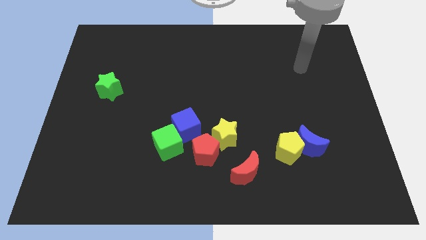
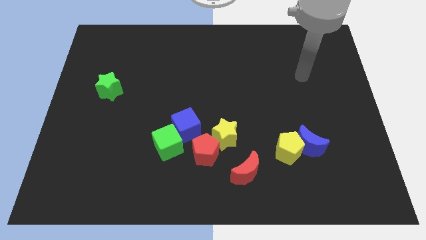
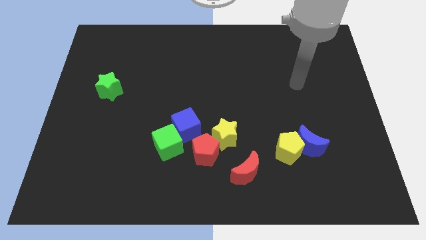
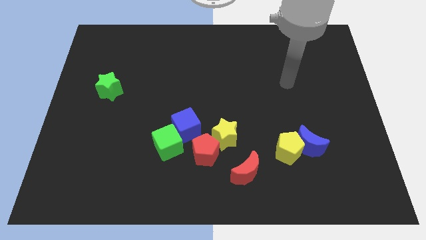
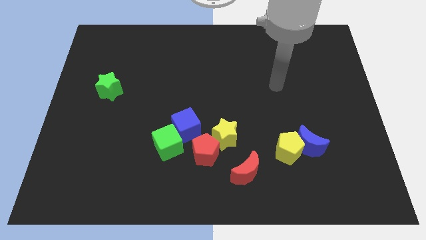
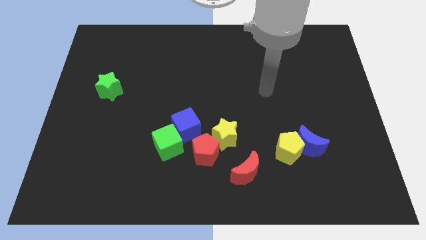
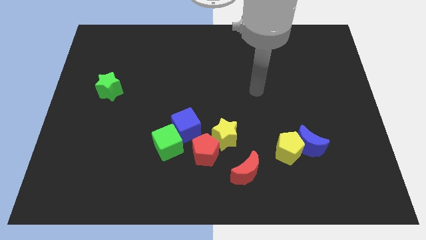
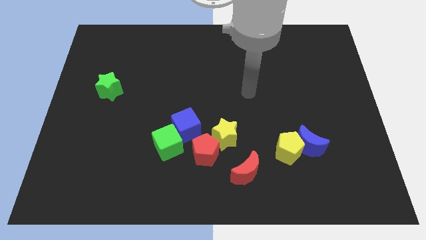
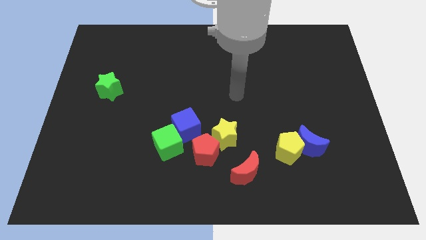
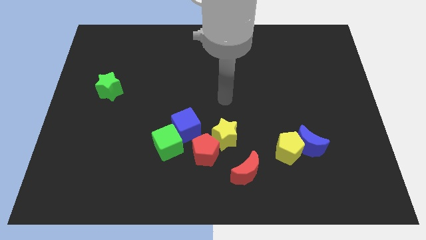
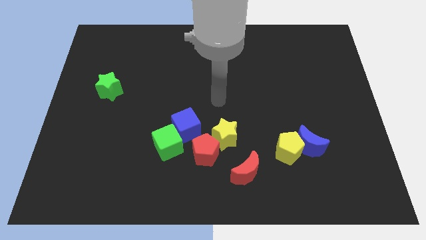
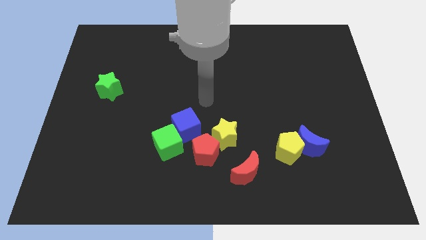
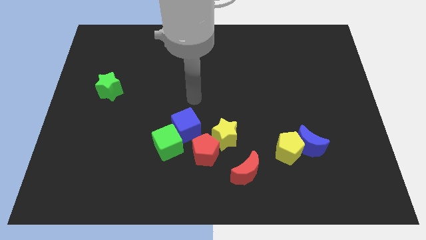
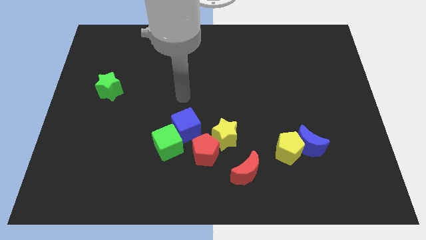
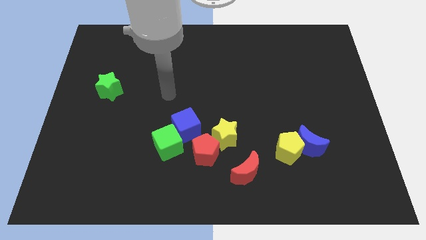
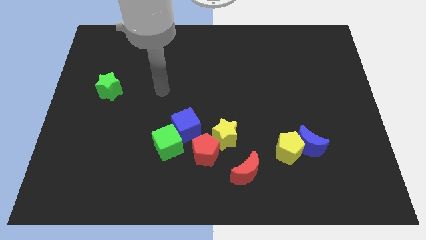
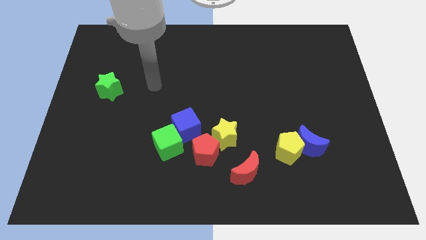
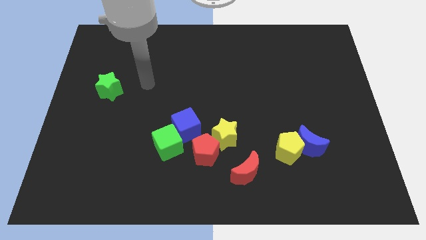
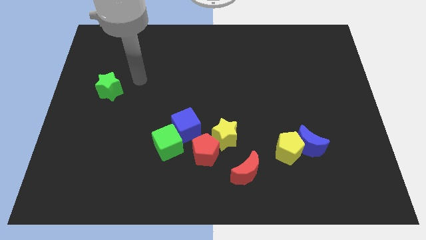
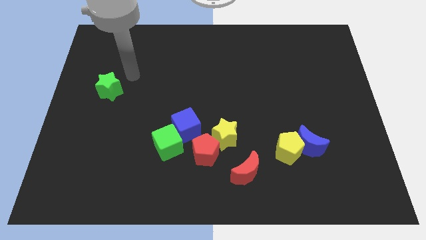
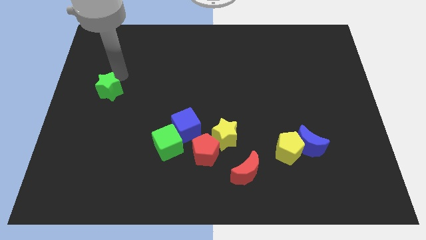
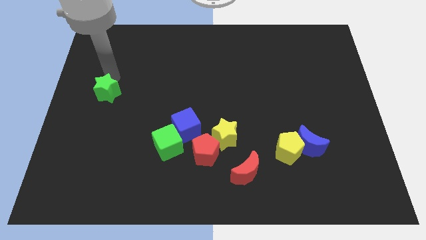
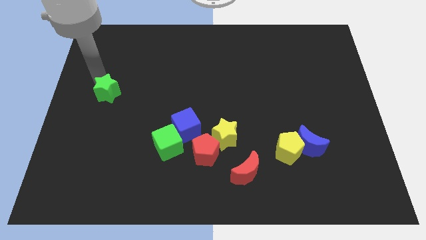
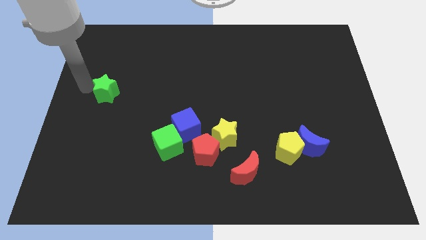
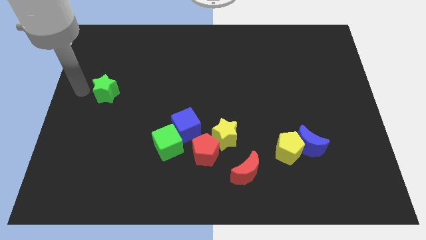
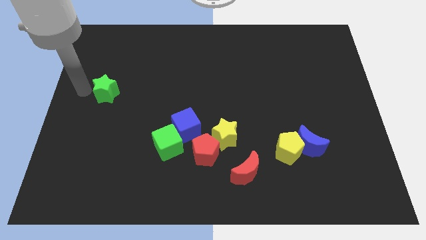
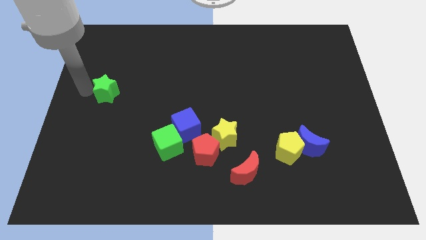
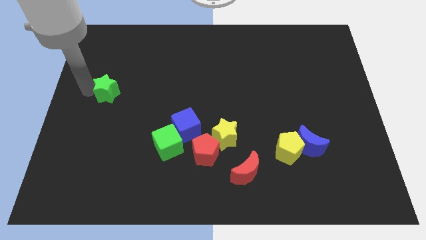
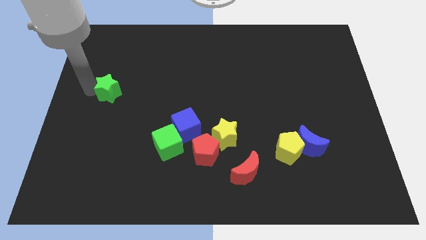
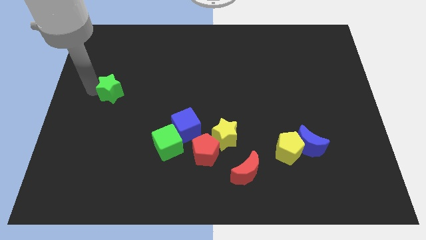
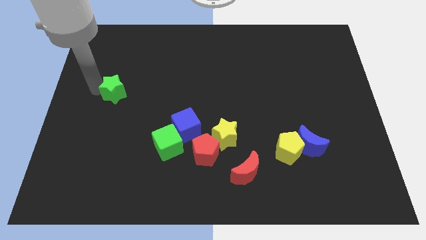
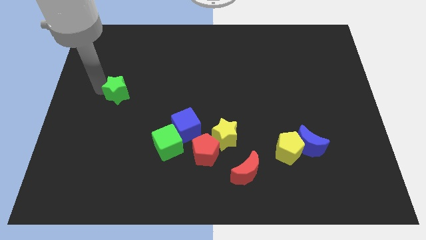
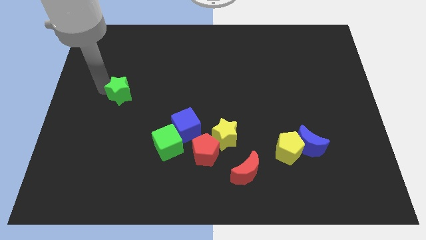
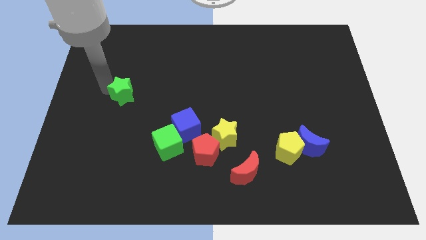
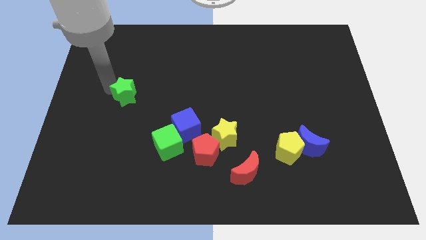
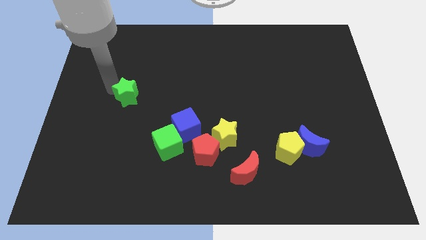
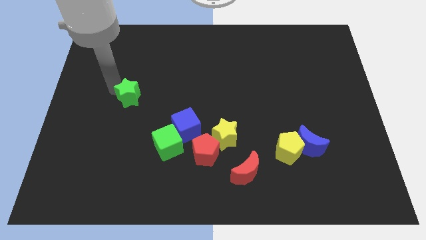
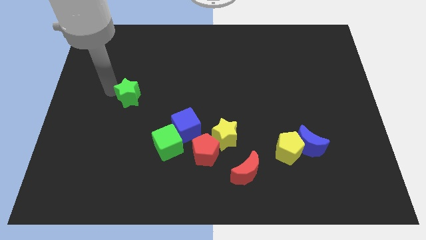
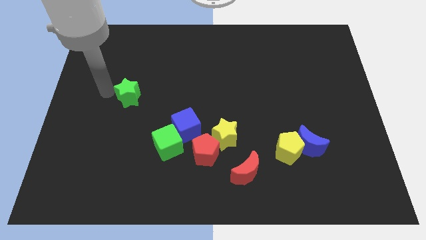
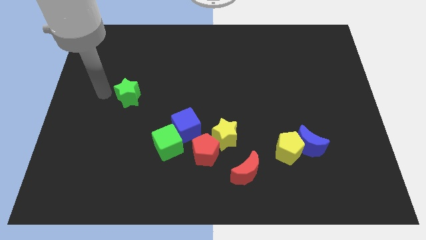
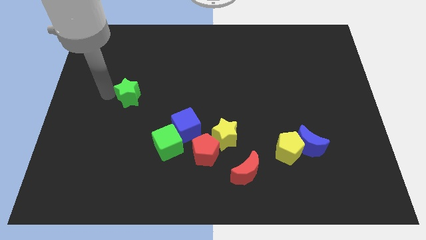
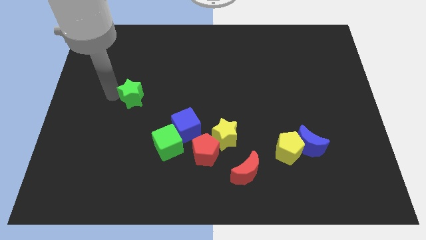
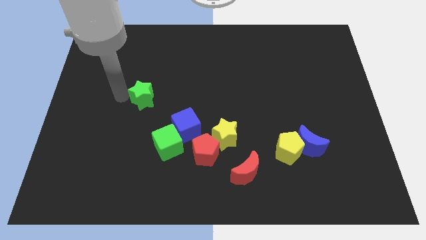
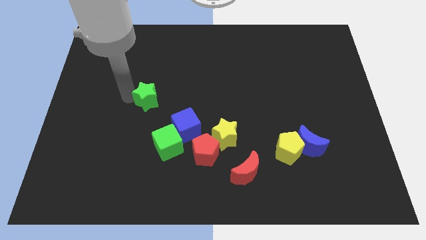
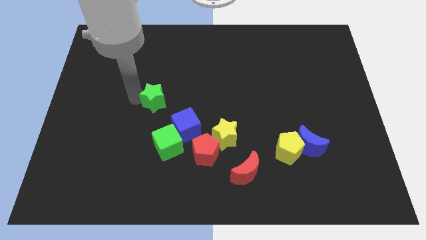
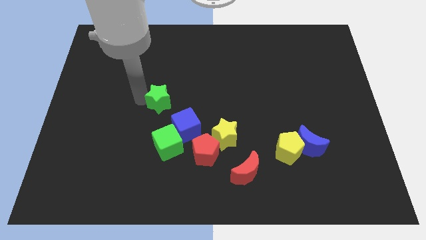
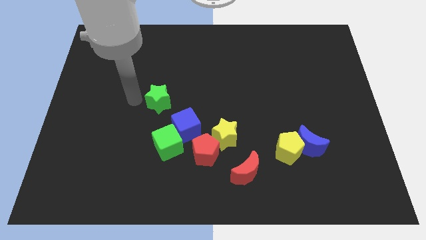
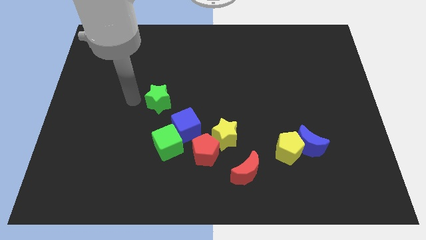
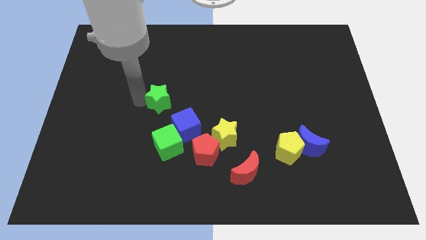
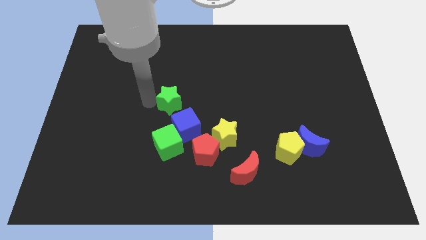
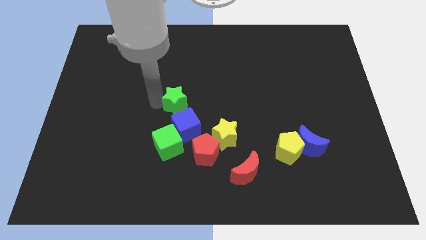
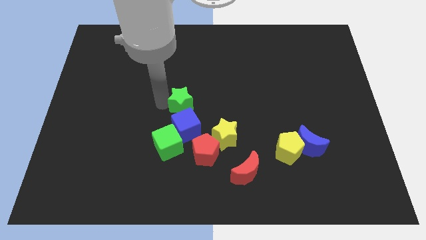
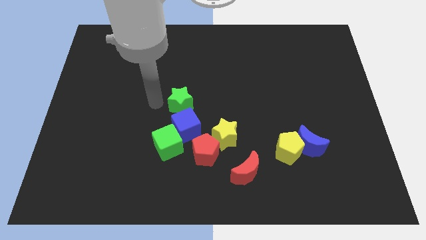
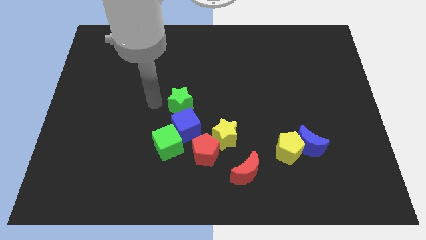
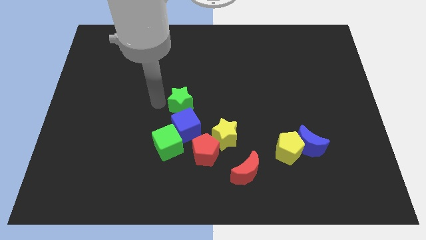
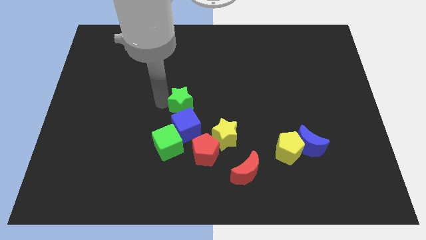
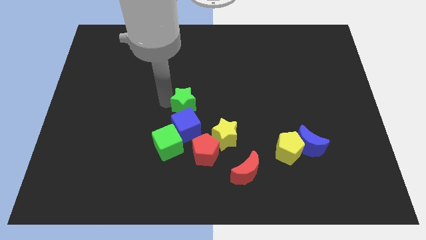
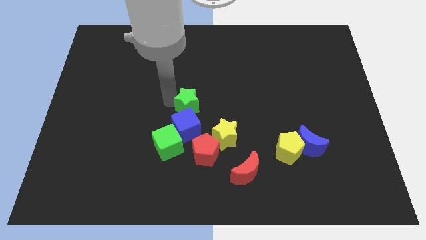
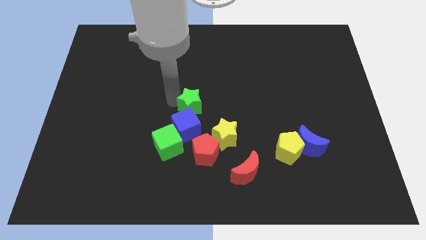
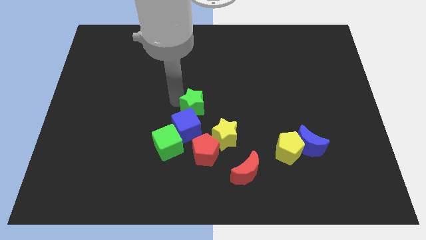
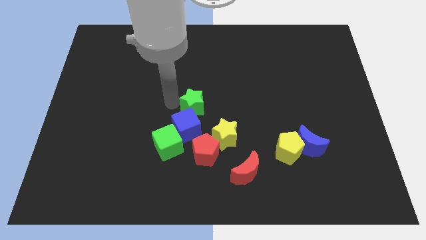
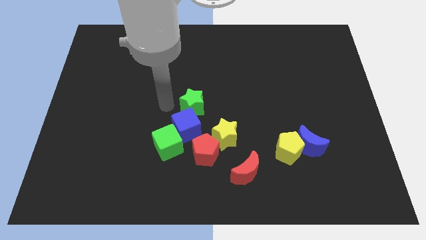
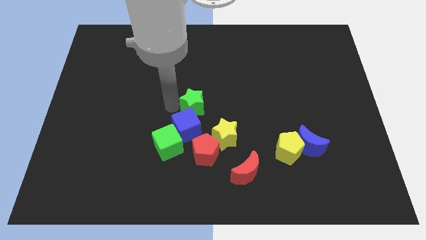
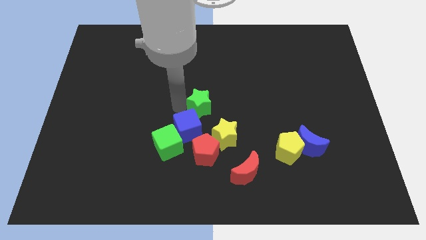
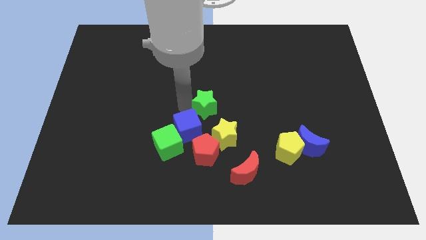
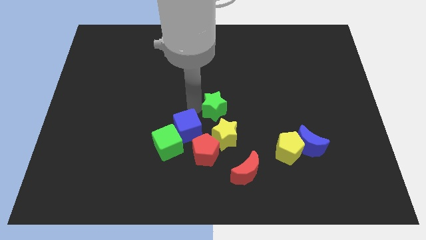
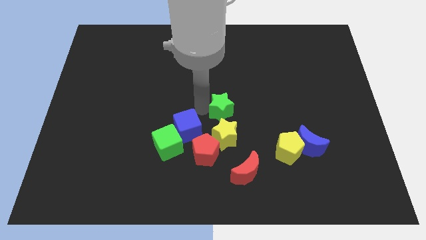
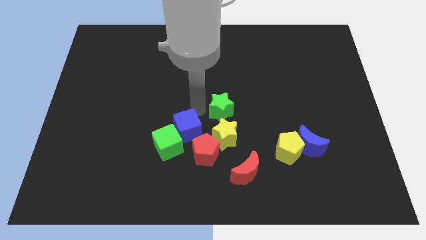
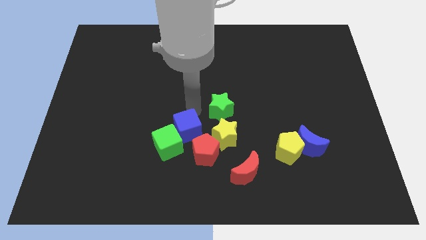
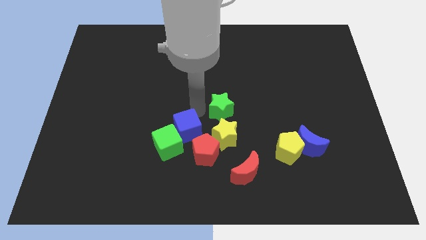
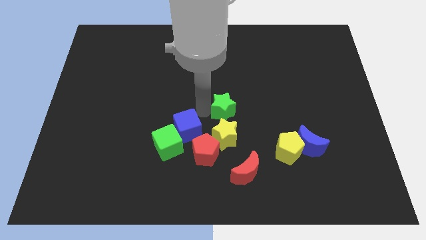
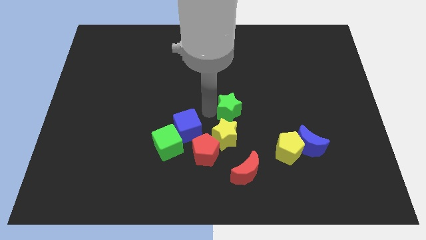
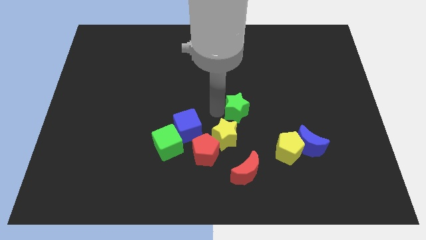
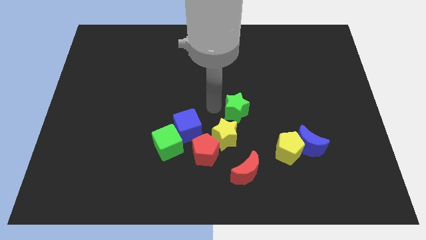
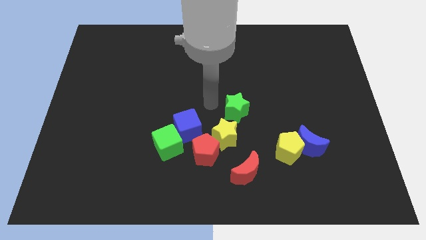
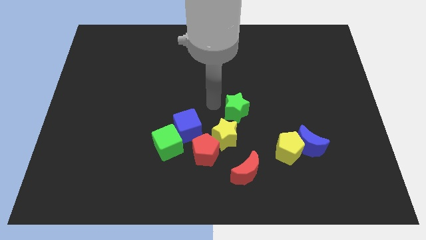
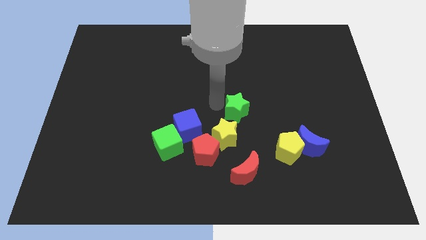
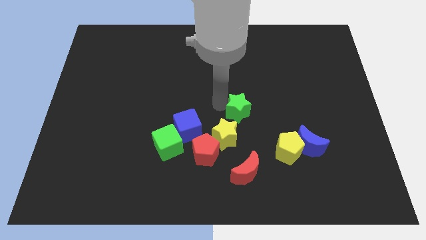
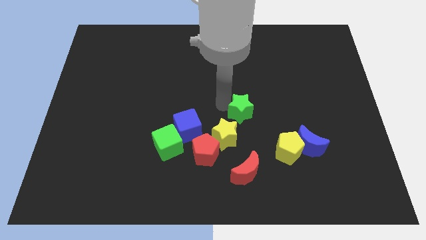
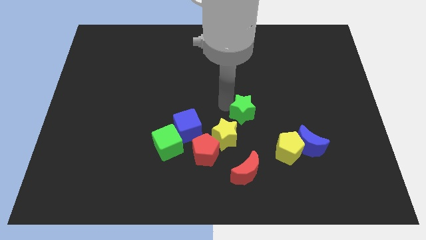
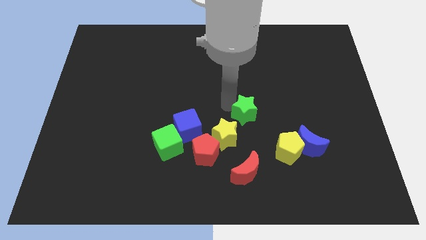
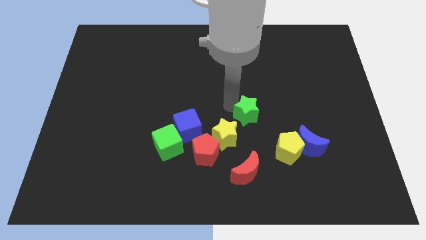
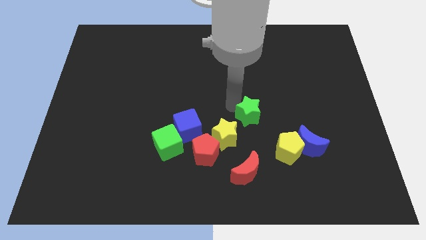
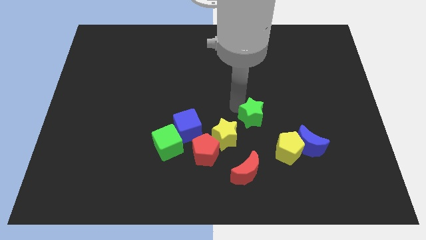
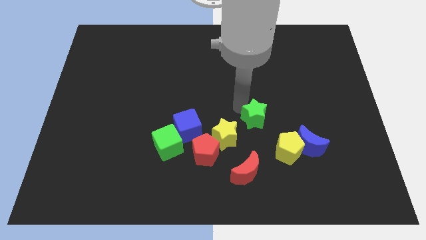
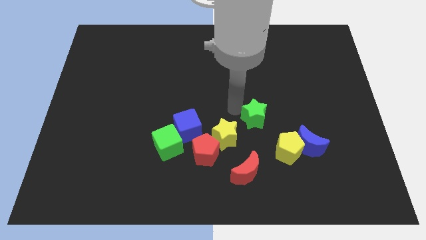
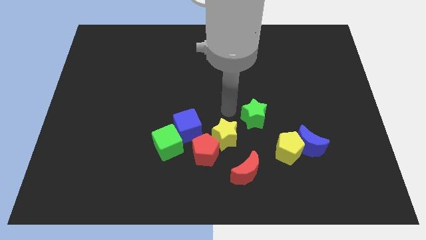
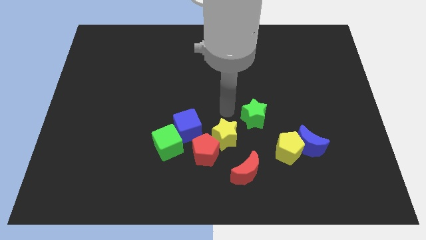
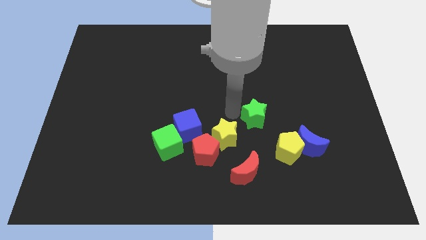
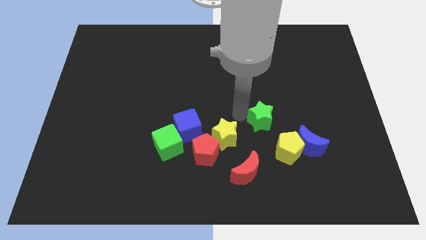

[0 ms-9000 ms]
push the green star diagonally up and to the left of the blue moon
